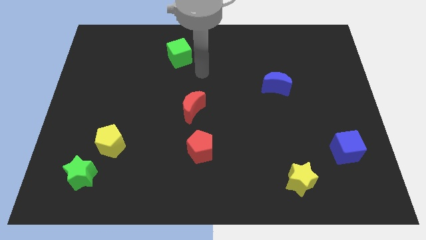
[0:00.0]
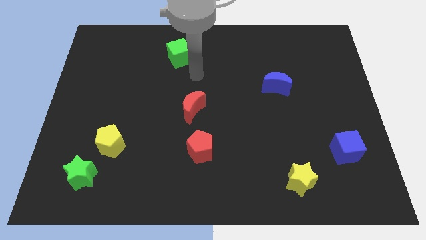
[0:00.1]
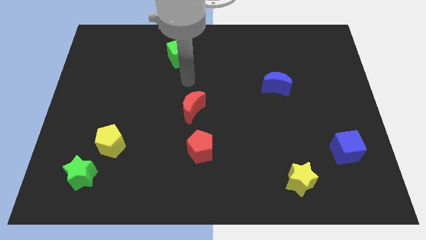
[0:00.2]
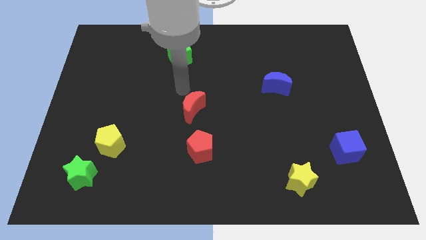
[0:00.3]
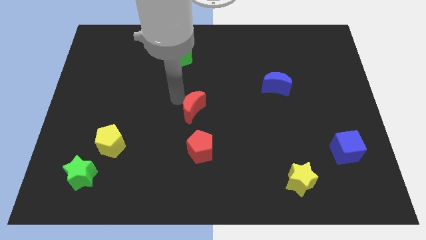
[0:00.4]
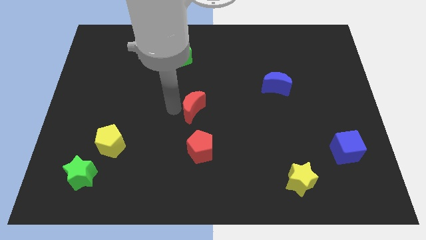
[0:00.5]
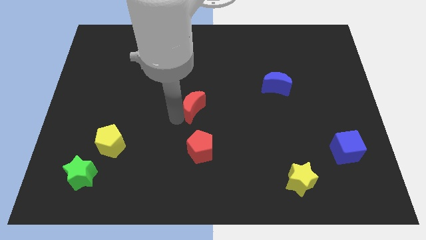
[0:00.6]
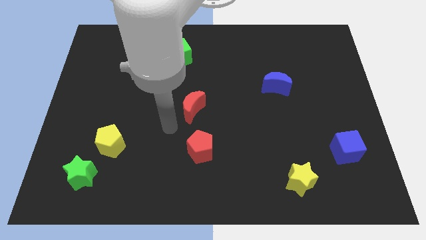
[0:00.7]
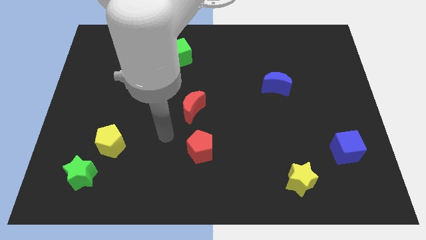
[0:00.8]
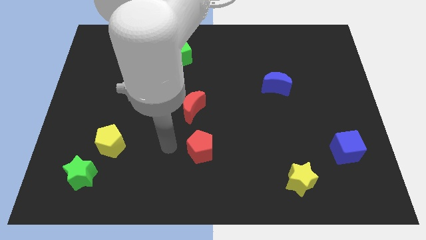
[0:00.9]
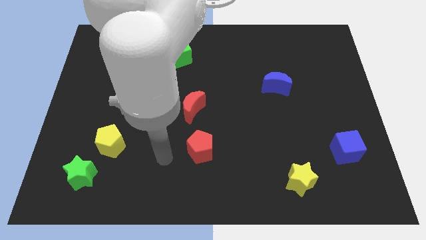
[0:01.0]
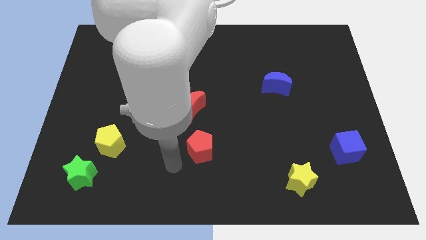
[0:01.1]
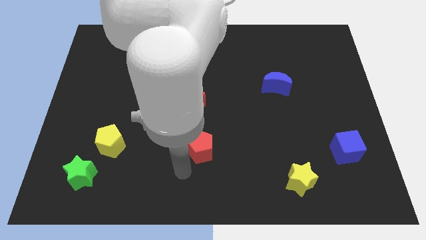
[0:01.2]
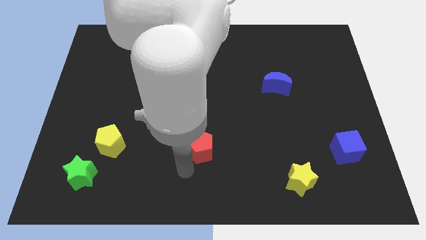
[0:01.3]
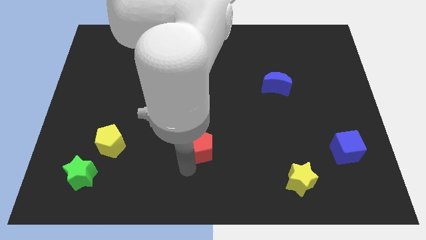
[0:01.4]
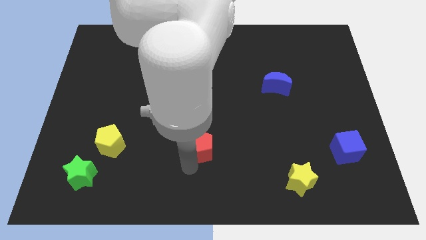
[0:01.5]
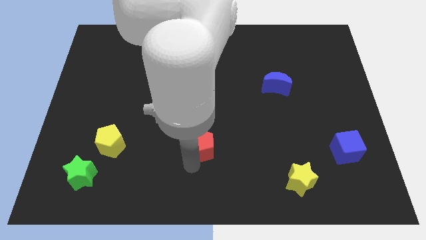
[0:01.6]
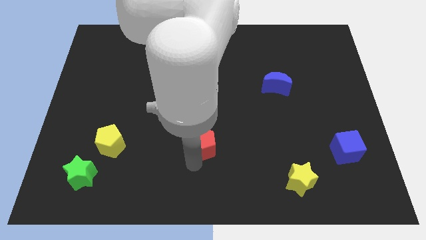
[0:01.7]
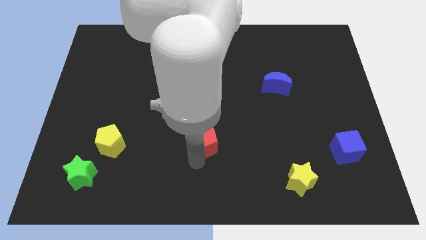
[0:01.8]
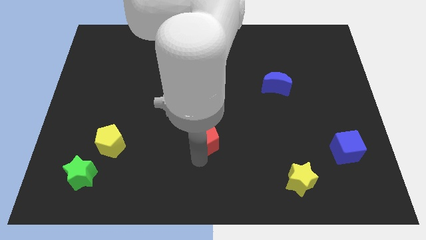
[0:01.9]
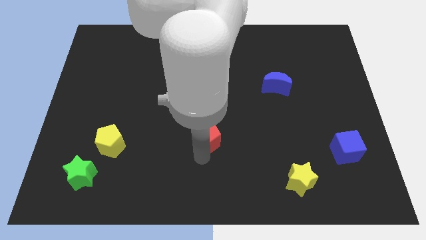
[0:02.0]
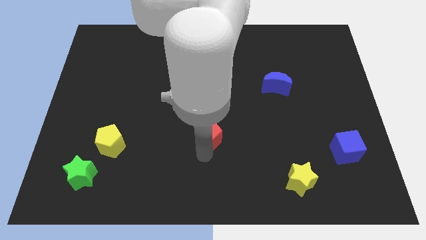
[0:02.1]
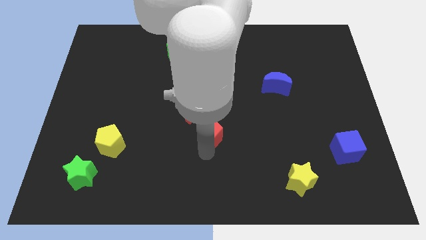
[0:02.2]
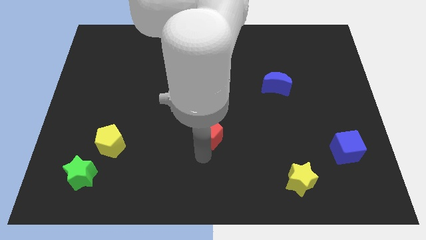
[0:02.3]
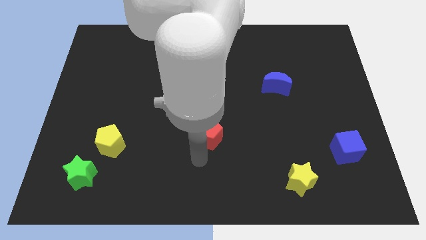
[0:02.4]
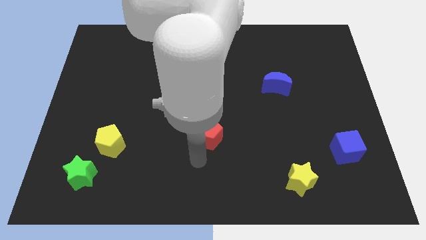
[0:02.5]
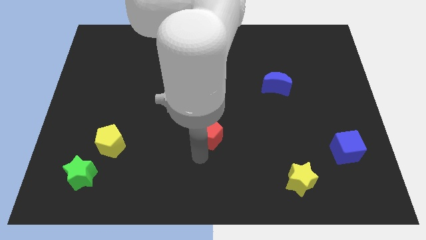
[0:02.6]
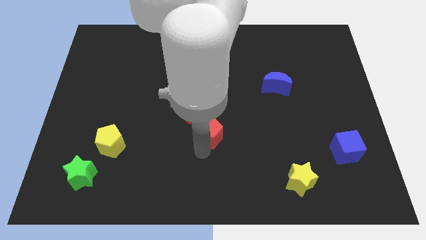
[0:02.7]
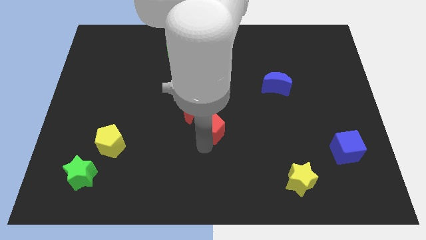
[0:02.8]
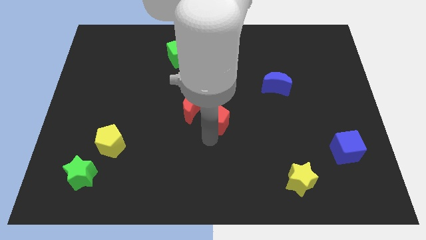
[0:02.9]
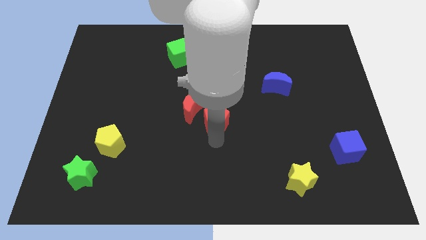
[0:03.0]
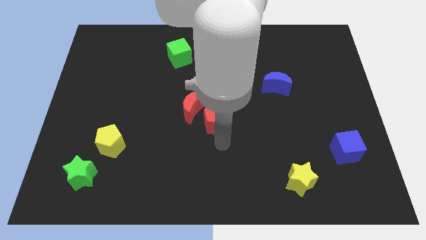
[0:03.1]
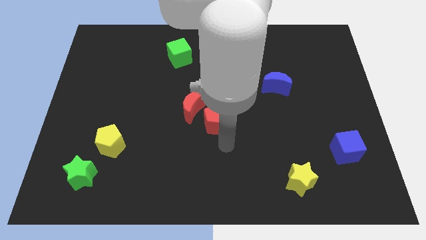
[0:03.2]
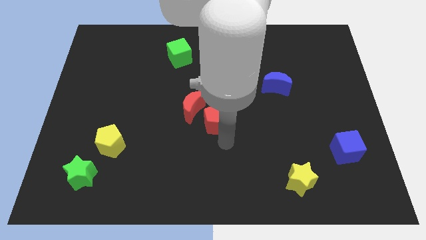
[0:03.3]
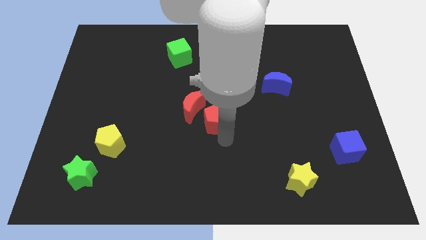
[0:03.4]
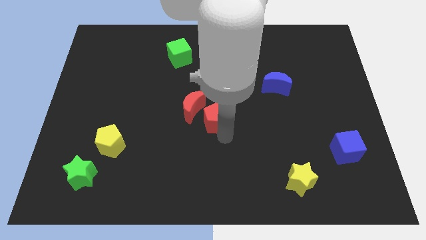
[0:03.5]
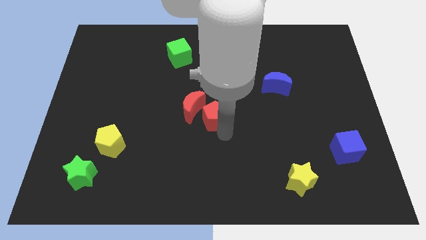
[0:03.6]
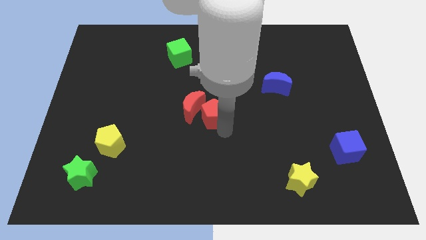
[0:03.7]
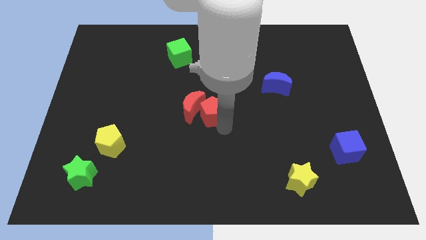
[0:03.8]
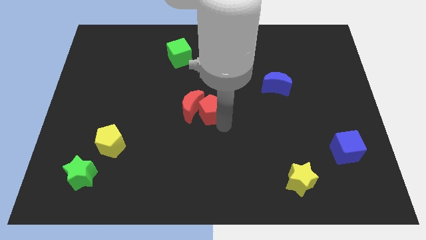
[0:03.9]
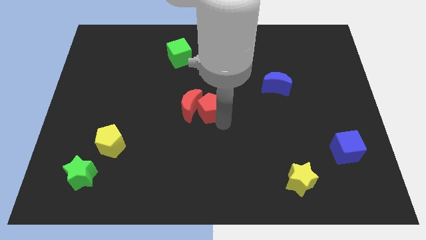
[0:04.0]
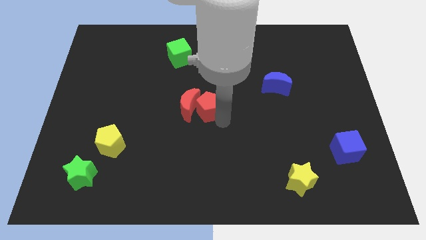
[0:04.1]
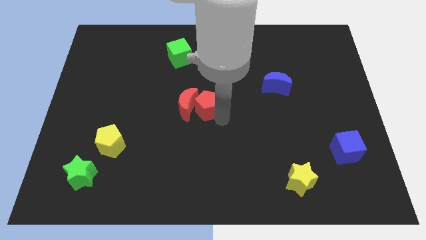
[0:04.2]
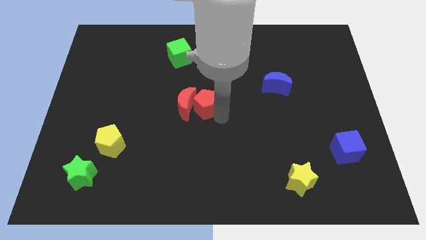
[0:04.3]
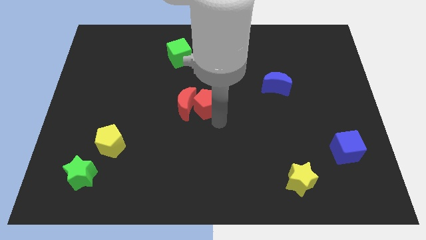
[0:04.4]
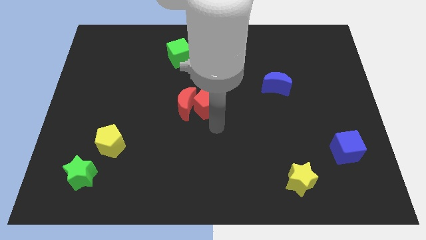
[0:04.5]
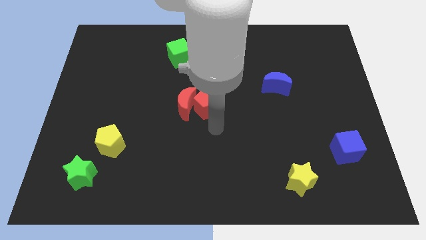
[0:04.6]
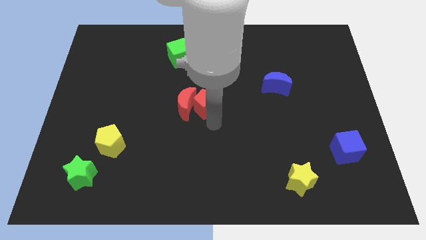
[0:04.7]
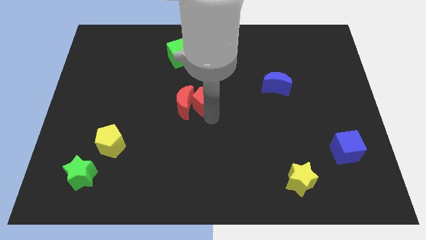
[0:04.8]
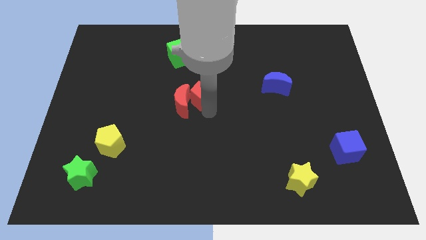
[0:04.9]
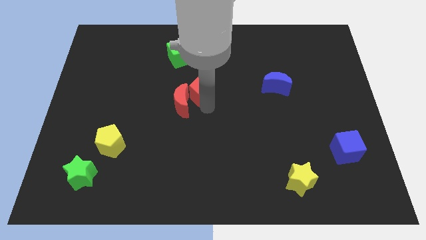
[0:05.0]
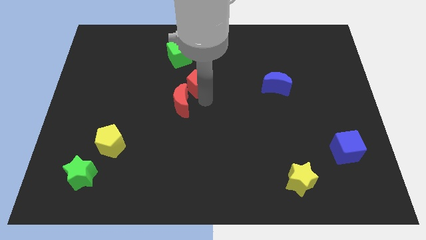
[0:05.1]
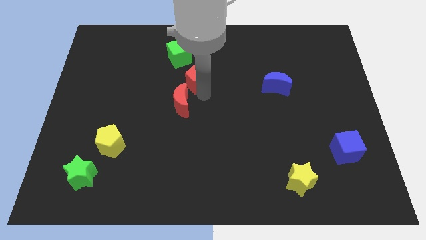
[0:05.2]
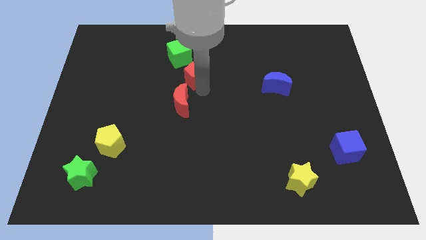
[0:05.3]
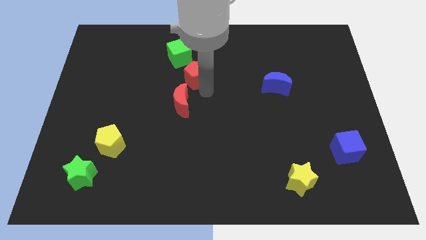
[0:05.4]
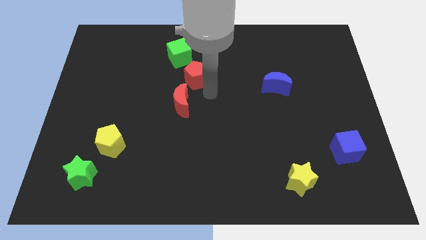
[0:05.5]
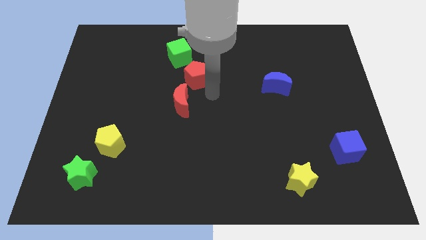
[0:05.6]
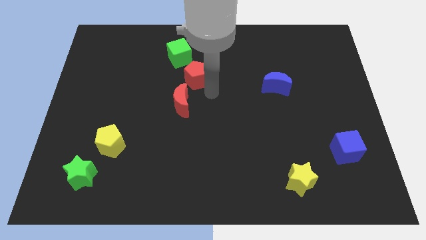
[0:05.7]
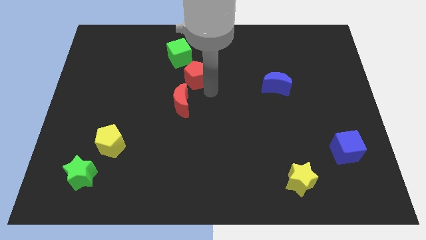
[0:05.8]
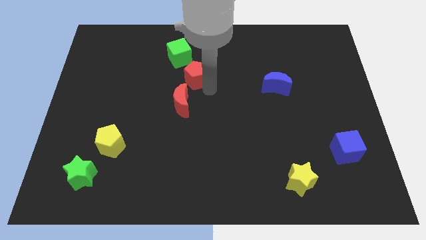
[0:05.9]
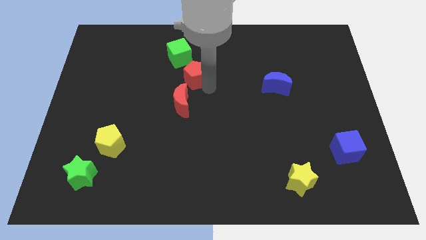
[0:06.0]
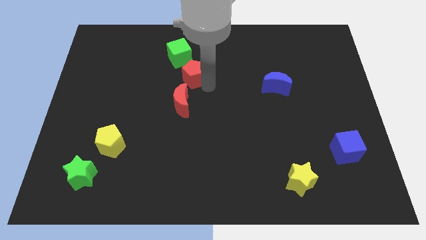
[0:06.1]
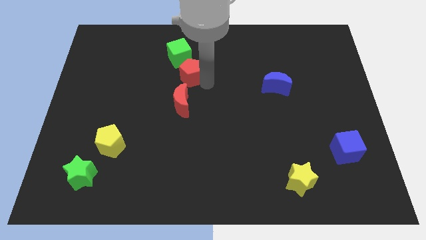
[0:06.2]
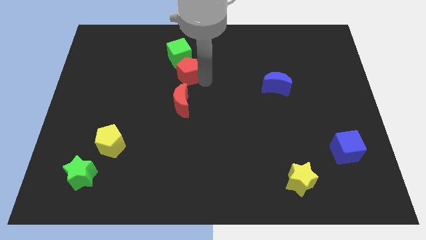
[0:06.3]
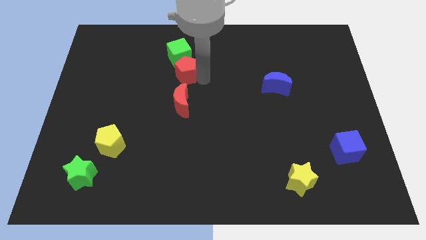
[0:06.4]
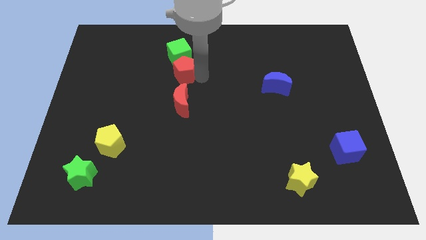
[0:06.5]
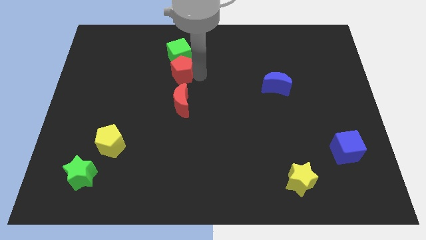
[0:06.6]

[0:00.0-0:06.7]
put the red pentagon towards the green cube
